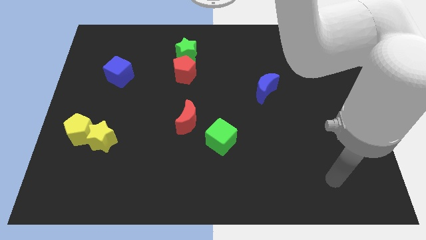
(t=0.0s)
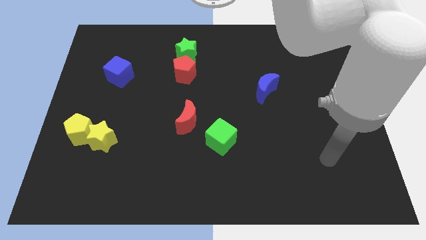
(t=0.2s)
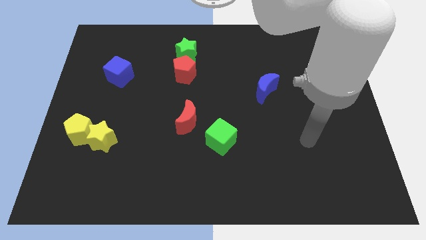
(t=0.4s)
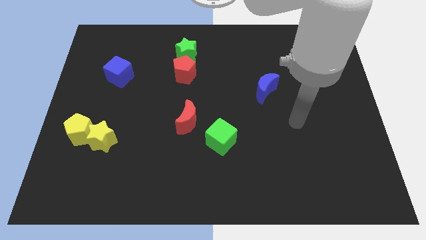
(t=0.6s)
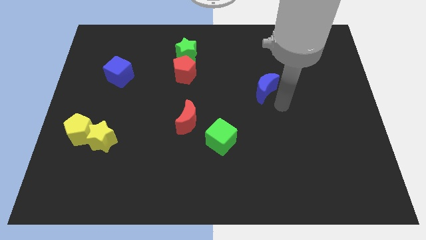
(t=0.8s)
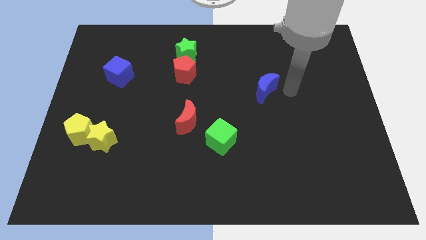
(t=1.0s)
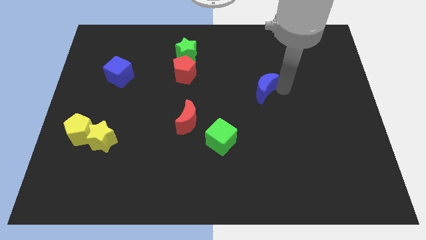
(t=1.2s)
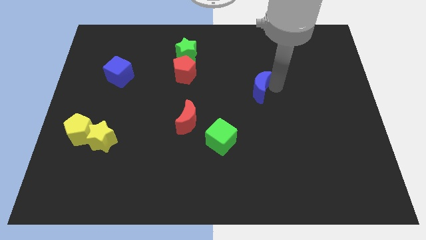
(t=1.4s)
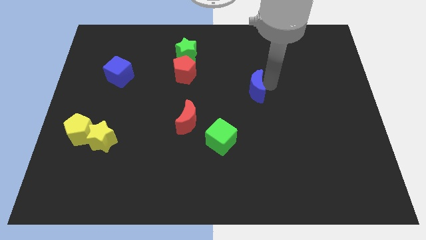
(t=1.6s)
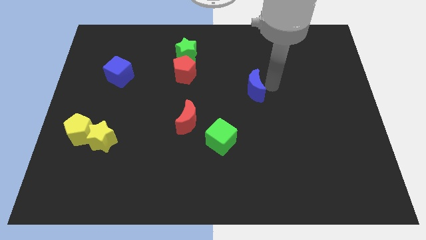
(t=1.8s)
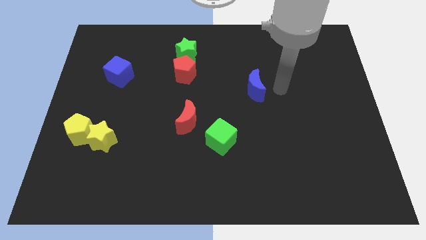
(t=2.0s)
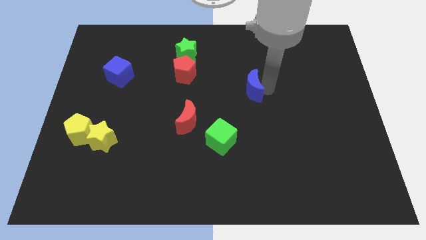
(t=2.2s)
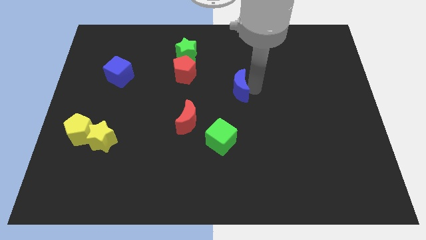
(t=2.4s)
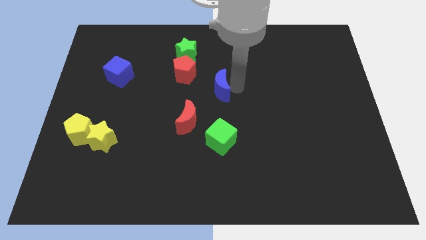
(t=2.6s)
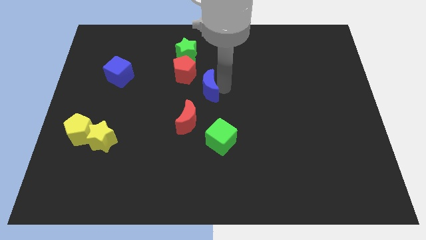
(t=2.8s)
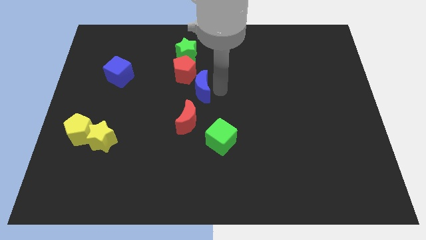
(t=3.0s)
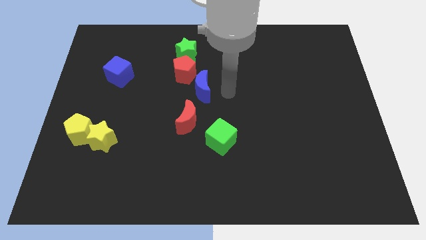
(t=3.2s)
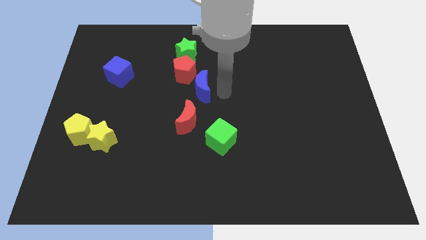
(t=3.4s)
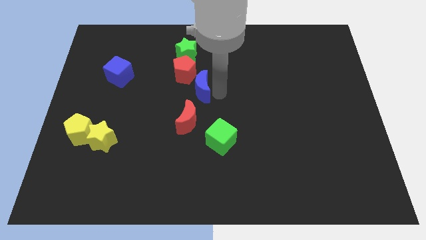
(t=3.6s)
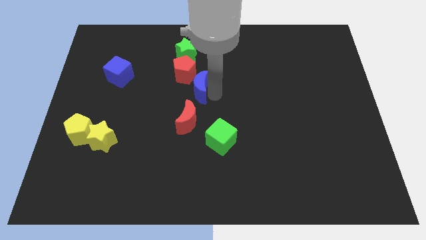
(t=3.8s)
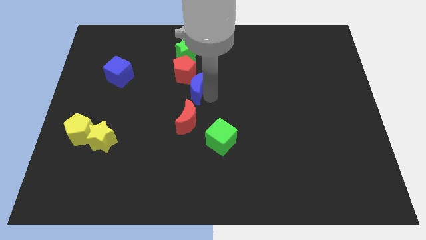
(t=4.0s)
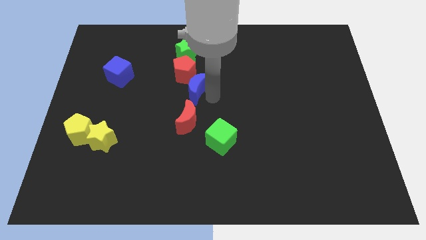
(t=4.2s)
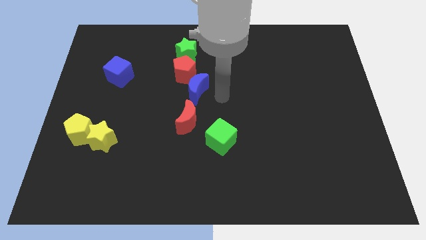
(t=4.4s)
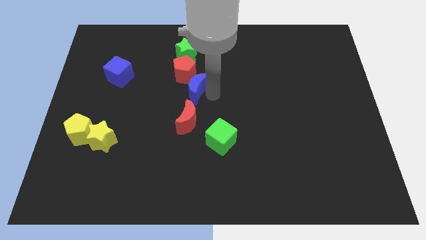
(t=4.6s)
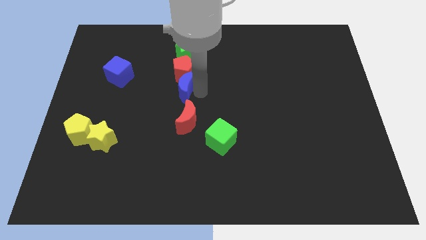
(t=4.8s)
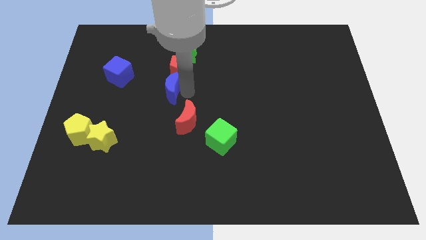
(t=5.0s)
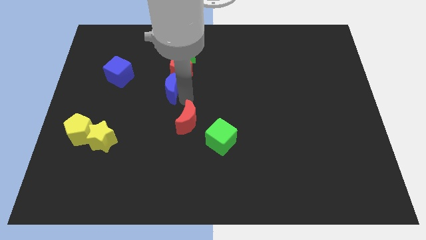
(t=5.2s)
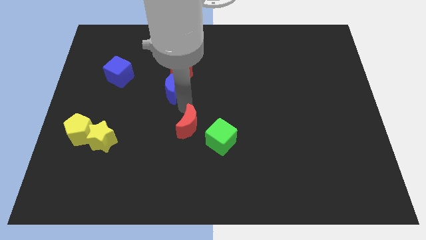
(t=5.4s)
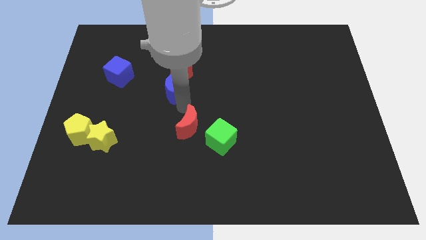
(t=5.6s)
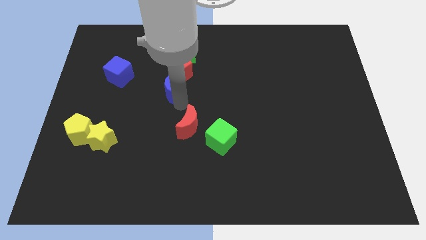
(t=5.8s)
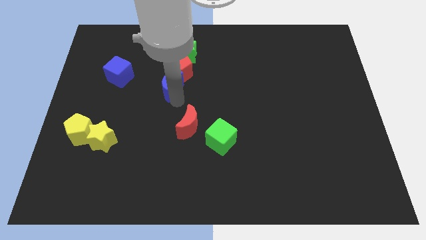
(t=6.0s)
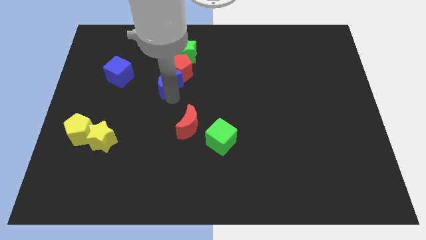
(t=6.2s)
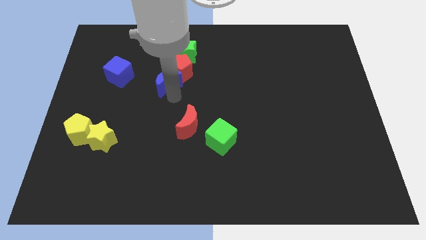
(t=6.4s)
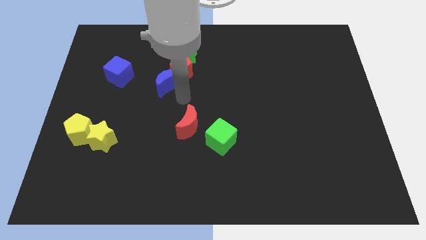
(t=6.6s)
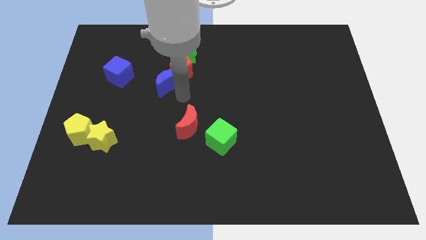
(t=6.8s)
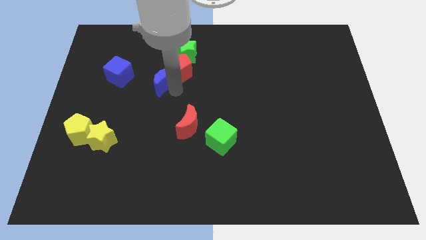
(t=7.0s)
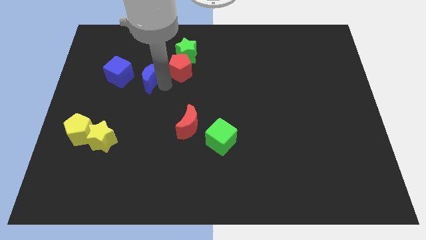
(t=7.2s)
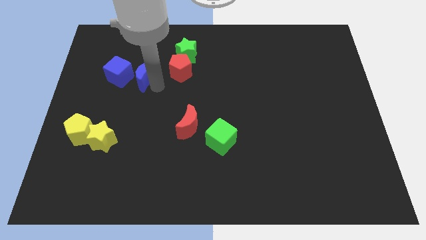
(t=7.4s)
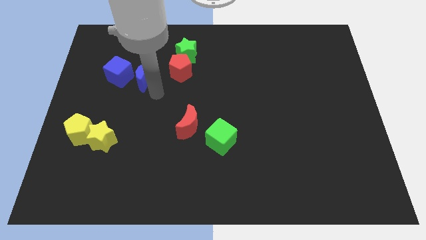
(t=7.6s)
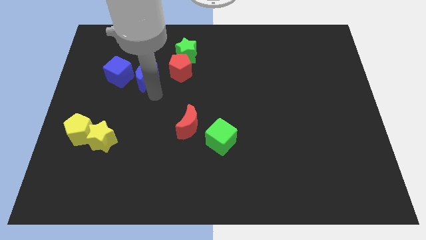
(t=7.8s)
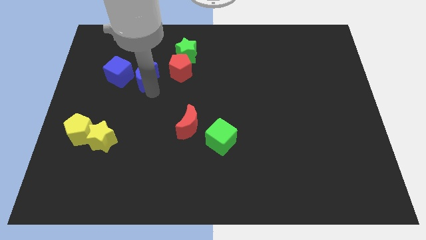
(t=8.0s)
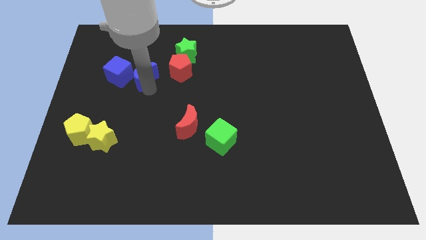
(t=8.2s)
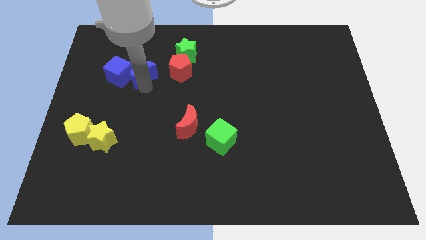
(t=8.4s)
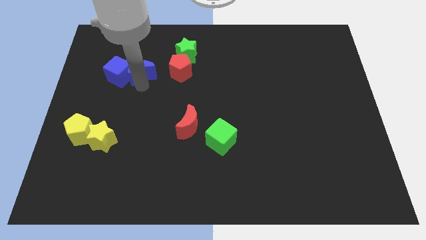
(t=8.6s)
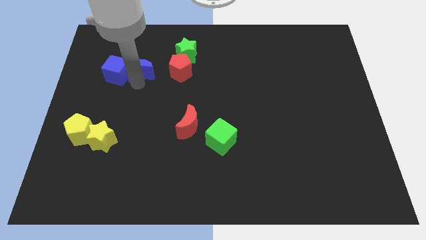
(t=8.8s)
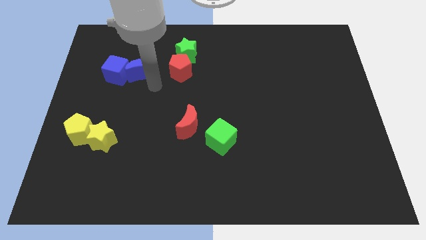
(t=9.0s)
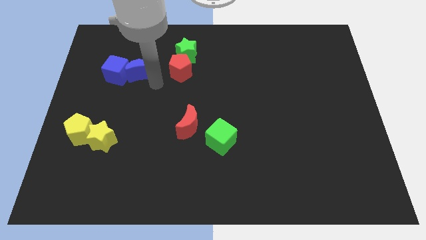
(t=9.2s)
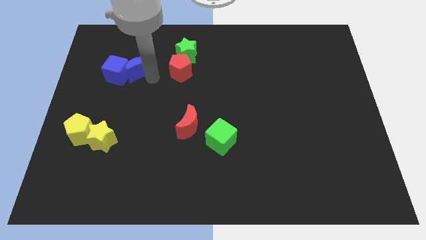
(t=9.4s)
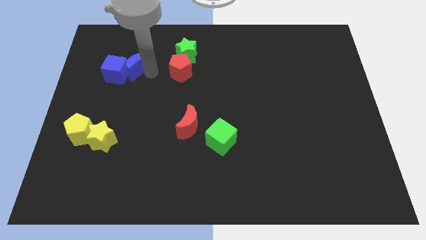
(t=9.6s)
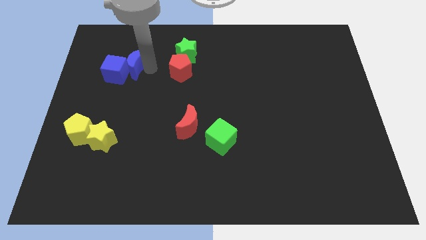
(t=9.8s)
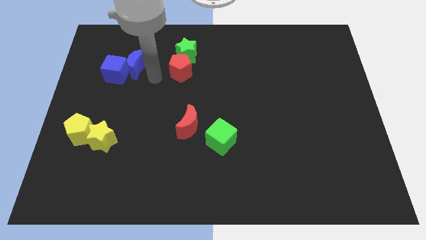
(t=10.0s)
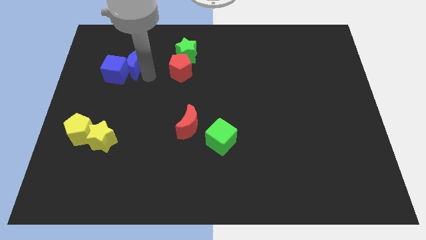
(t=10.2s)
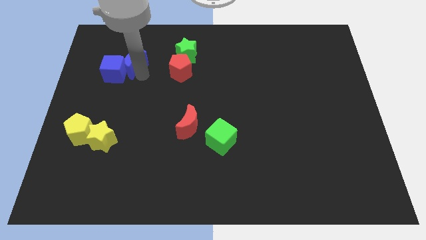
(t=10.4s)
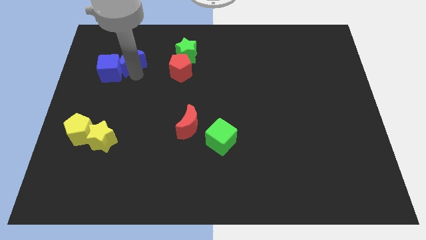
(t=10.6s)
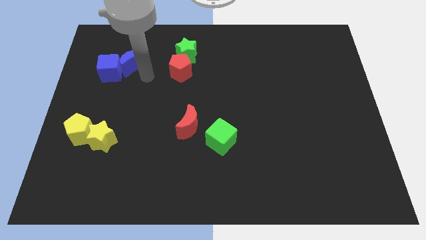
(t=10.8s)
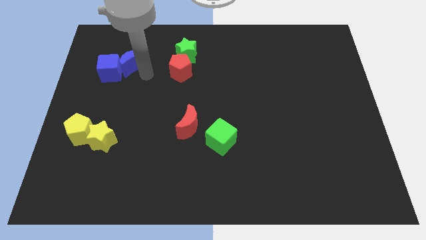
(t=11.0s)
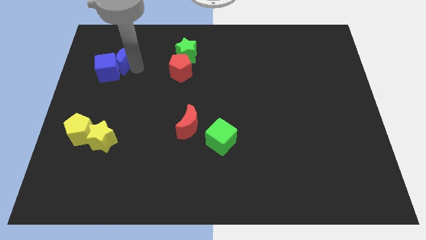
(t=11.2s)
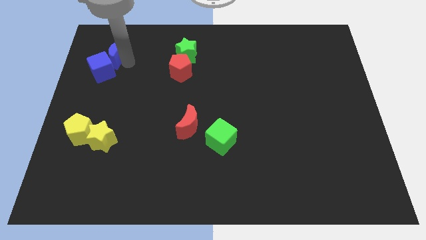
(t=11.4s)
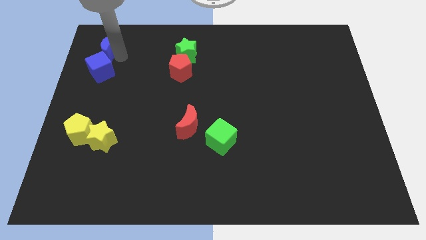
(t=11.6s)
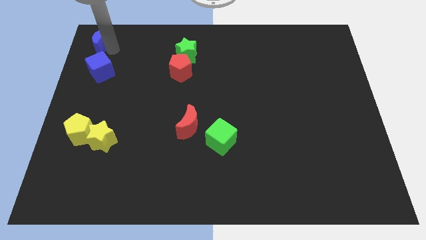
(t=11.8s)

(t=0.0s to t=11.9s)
slide the blue moon to the top left

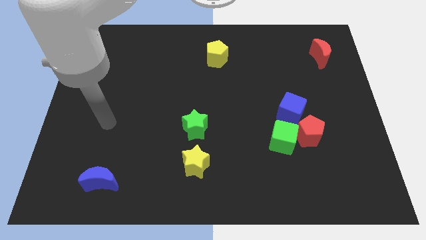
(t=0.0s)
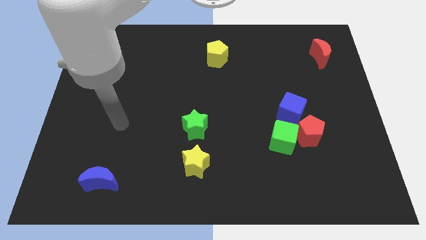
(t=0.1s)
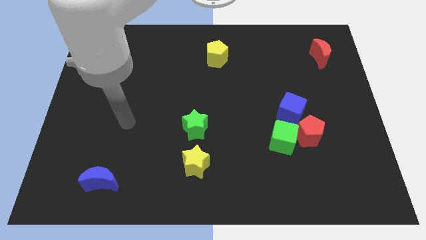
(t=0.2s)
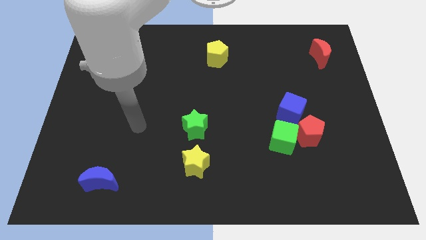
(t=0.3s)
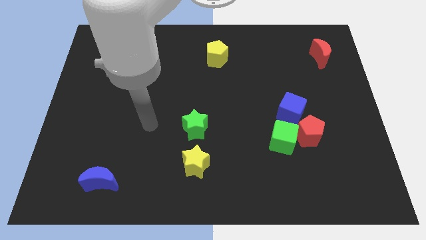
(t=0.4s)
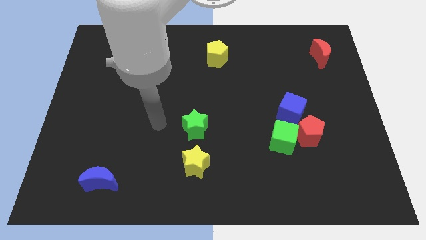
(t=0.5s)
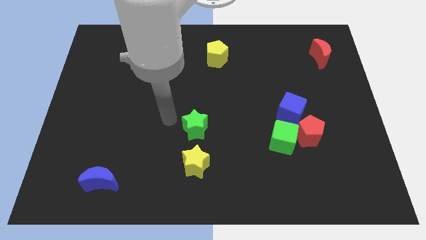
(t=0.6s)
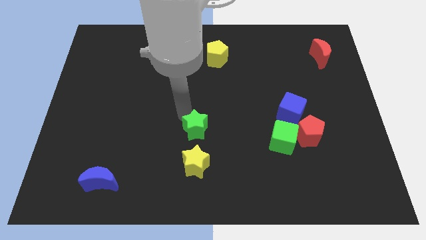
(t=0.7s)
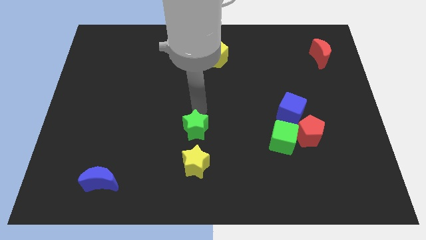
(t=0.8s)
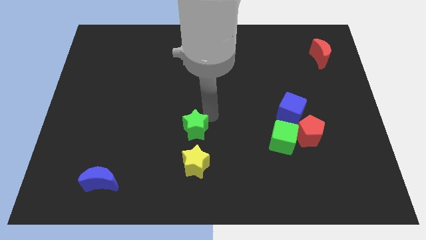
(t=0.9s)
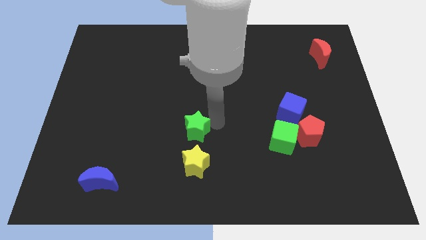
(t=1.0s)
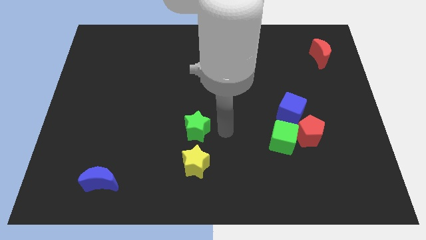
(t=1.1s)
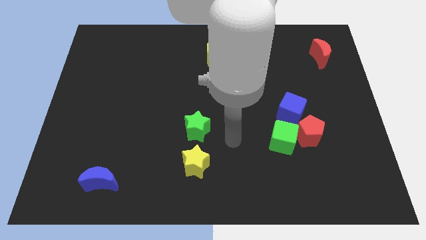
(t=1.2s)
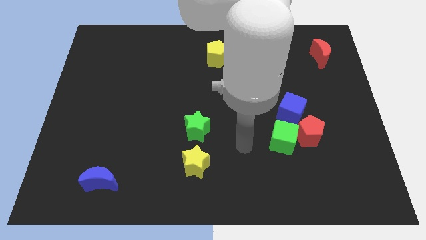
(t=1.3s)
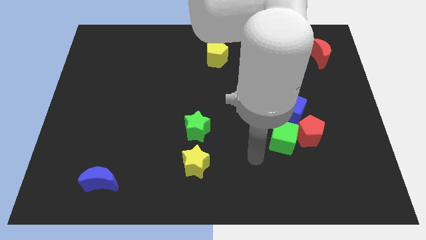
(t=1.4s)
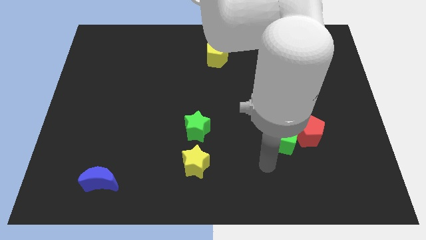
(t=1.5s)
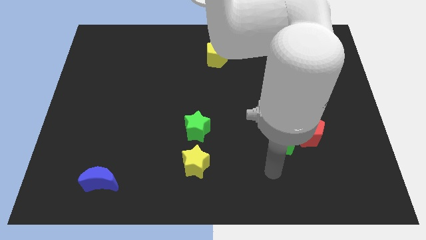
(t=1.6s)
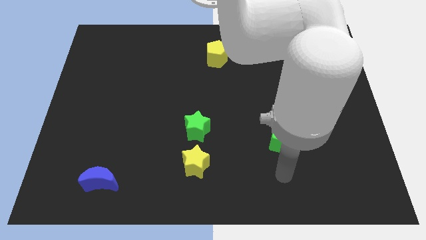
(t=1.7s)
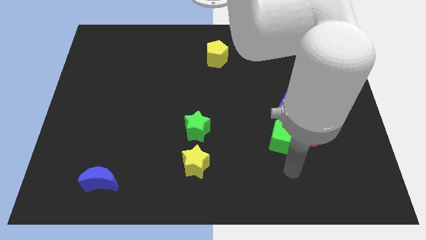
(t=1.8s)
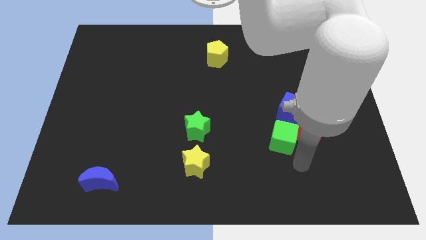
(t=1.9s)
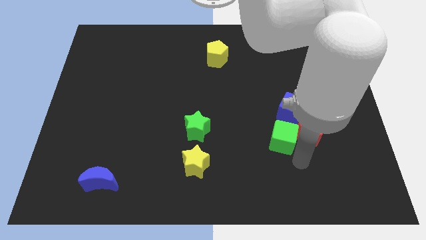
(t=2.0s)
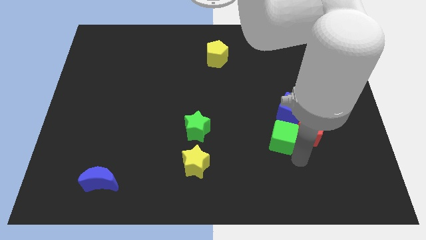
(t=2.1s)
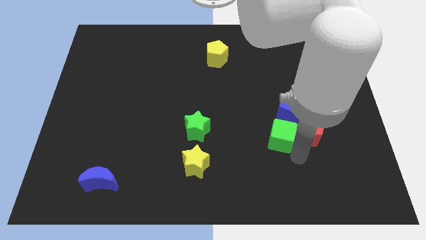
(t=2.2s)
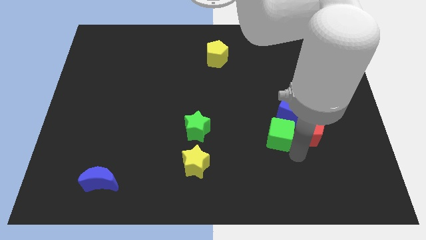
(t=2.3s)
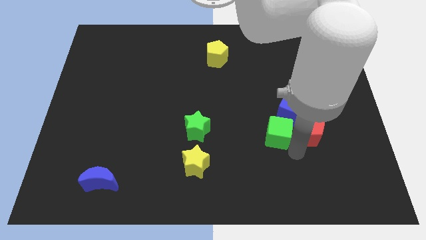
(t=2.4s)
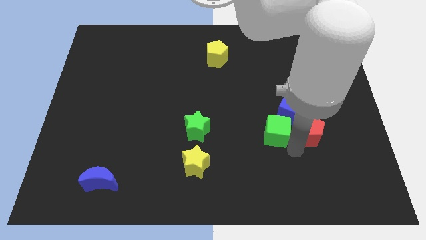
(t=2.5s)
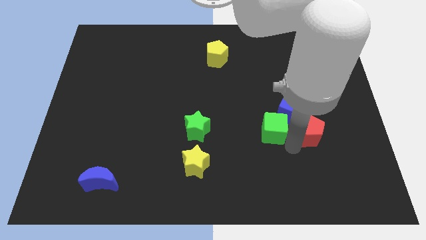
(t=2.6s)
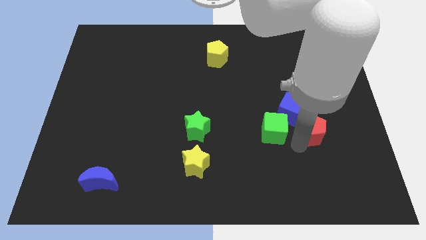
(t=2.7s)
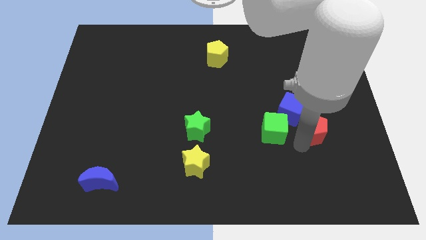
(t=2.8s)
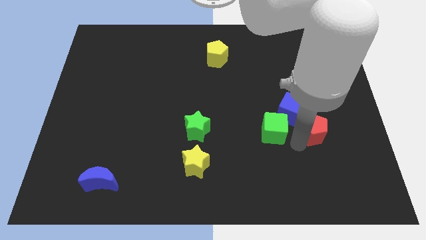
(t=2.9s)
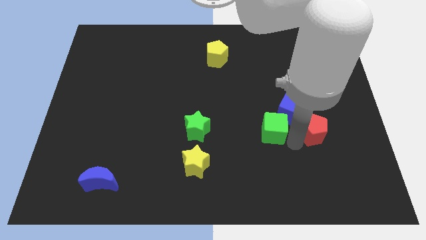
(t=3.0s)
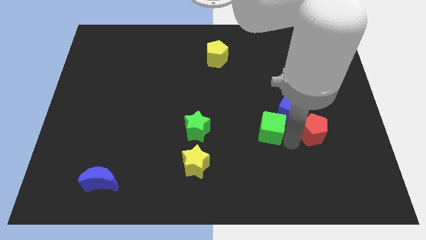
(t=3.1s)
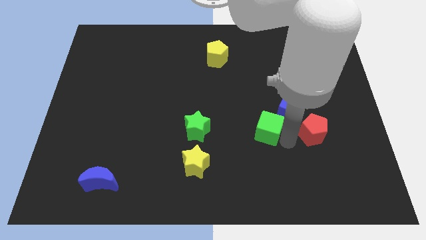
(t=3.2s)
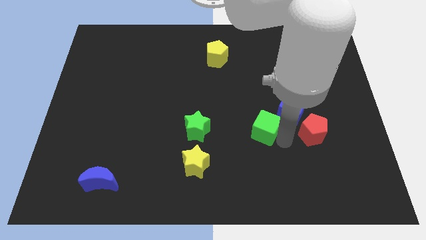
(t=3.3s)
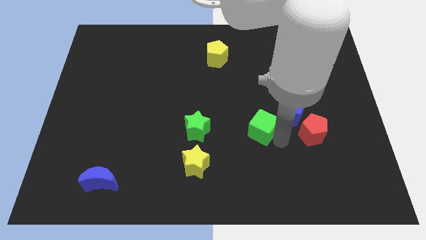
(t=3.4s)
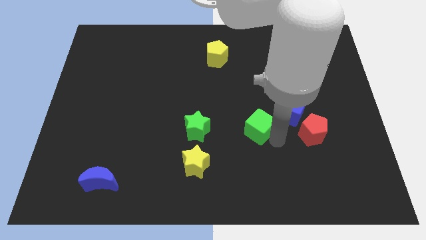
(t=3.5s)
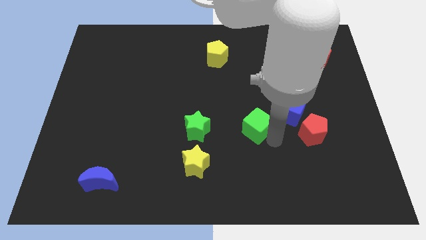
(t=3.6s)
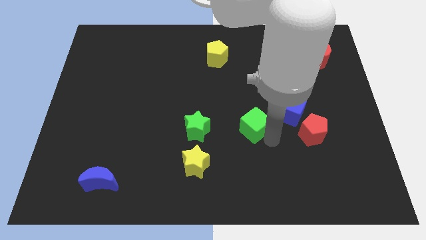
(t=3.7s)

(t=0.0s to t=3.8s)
push the green cube to the middle
